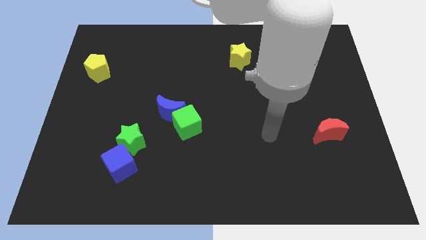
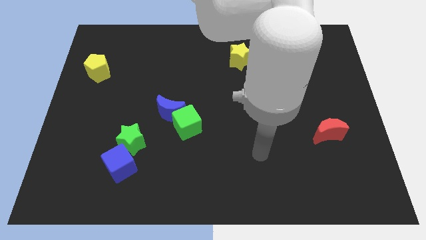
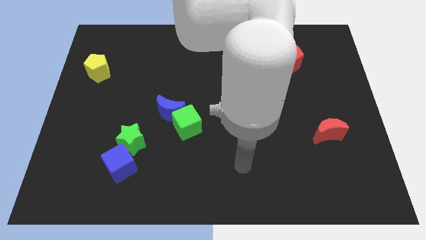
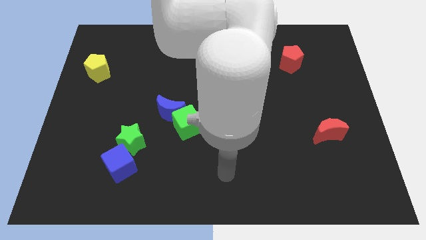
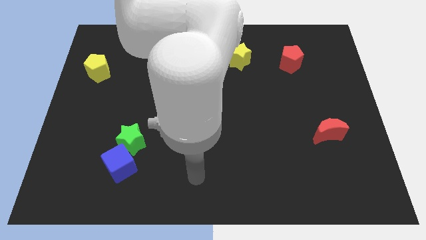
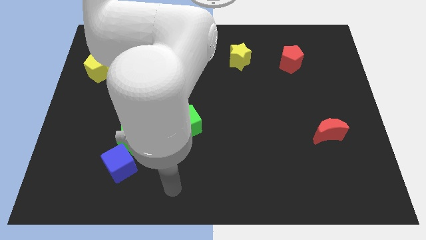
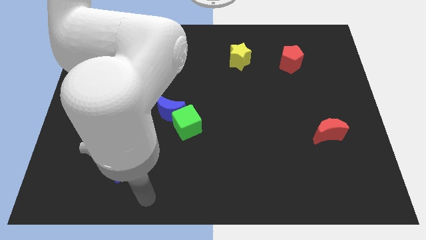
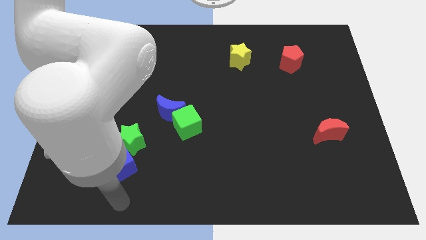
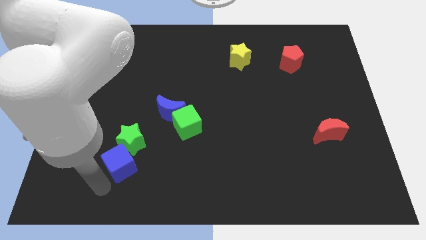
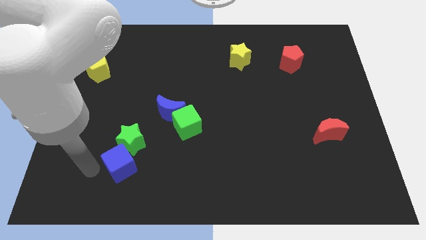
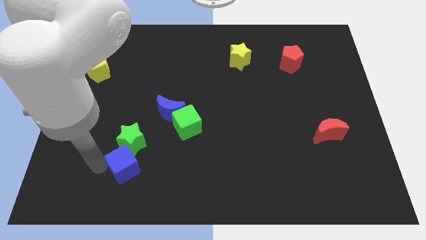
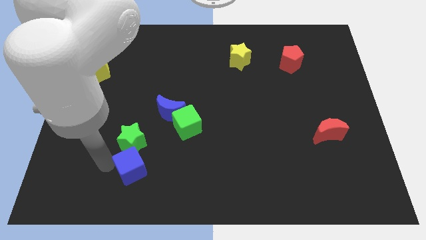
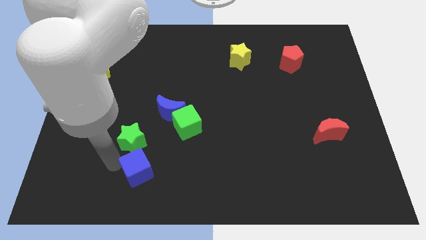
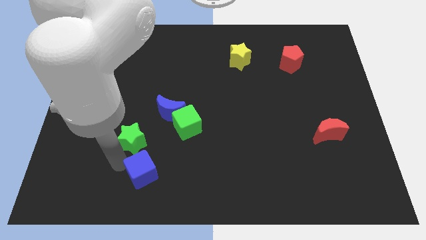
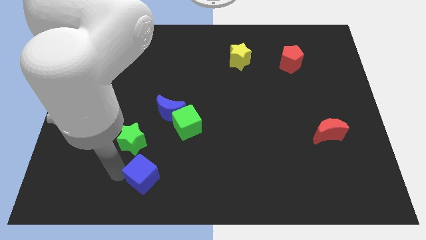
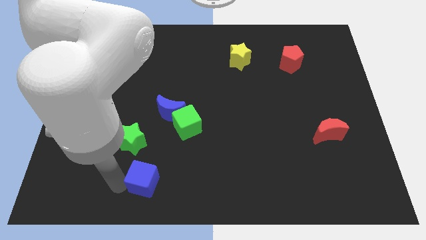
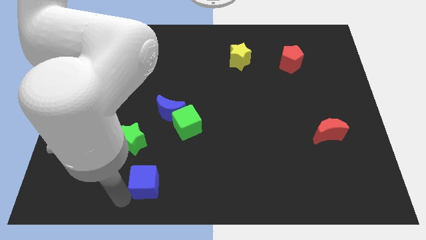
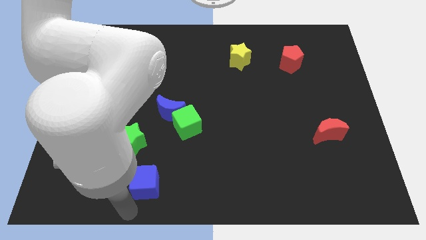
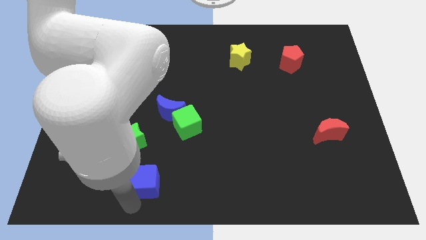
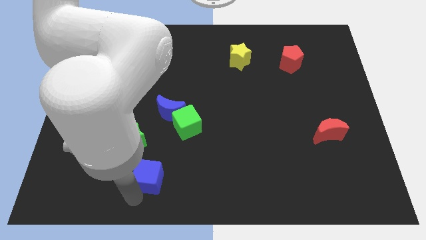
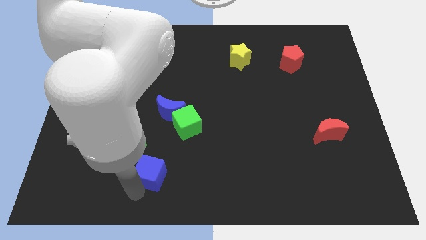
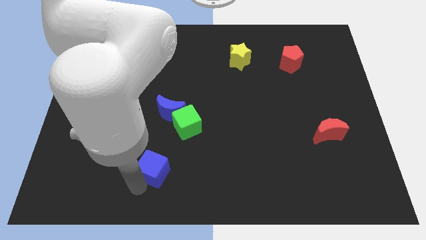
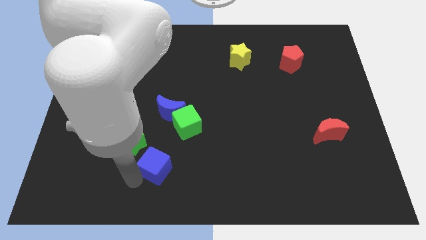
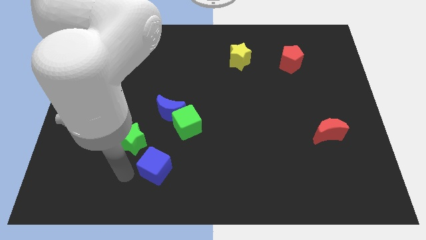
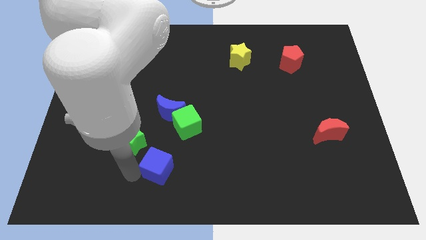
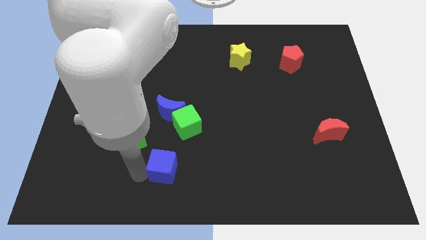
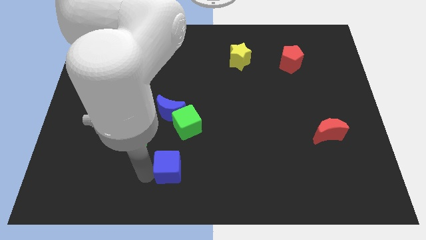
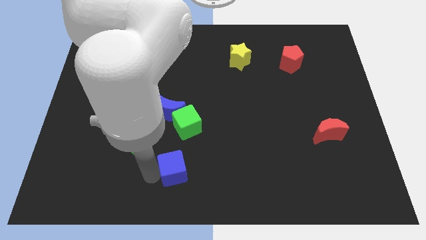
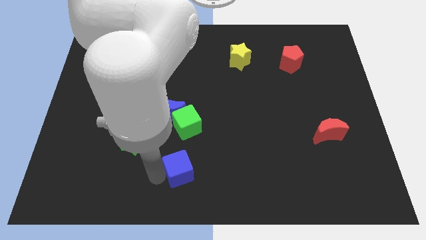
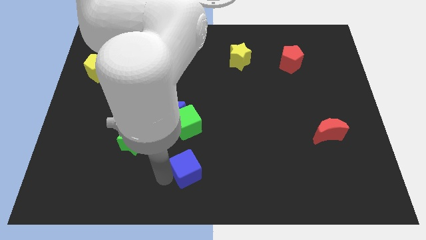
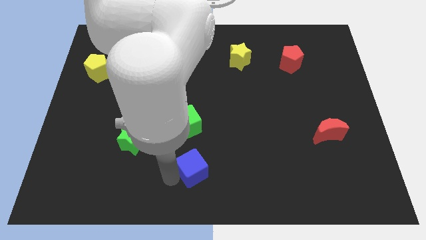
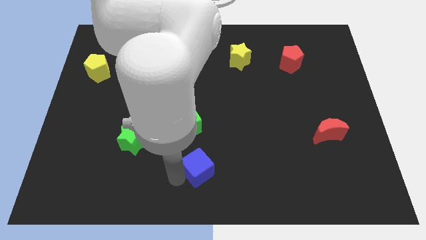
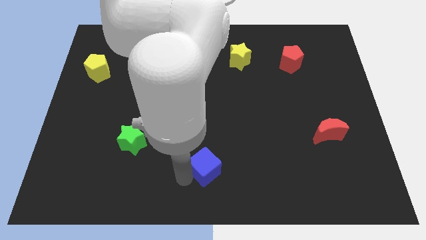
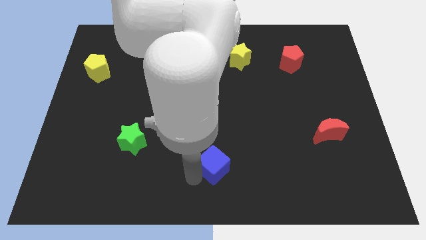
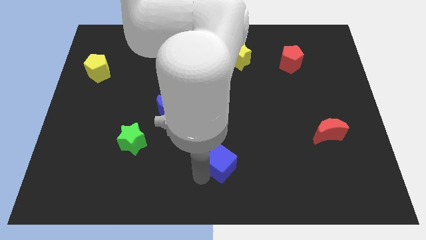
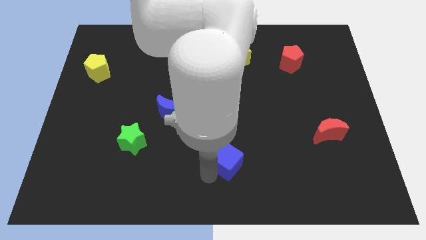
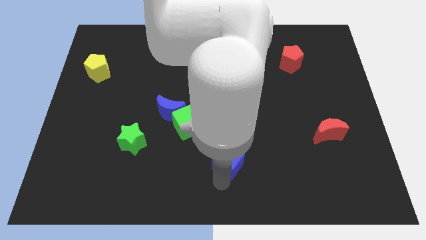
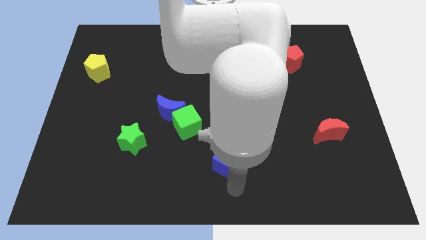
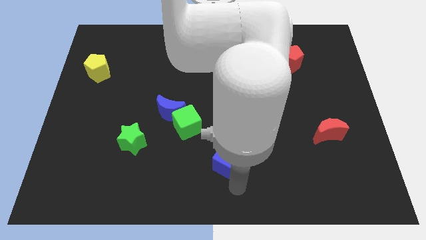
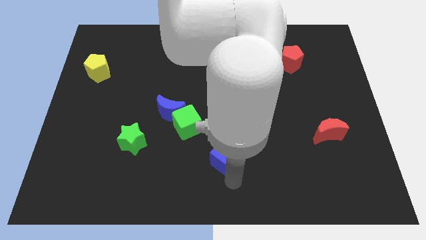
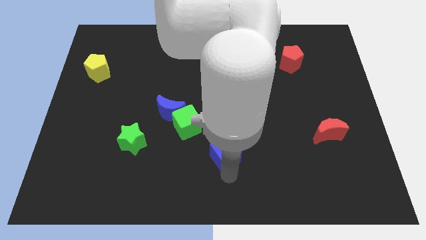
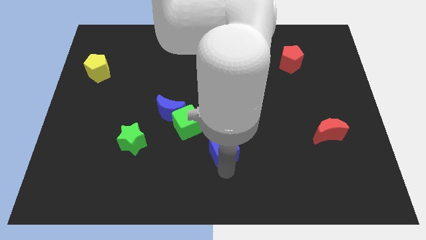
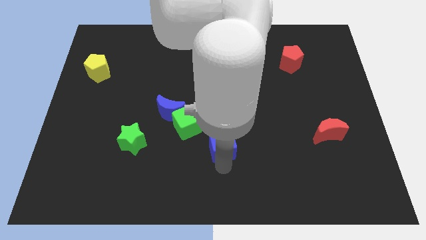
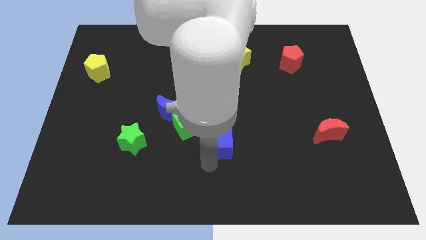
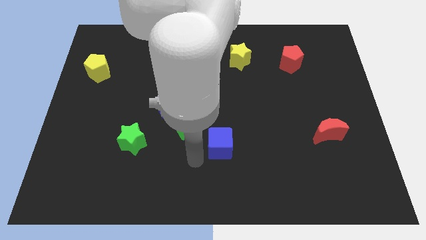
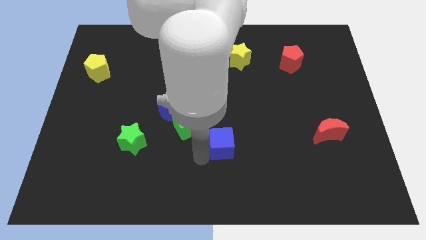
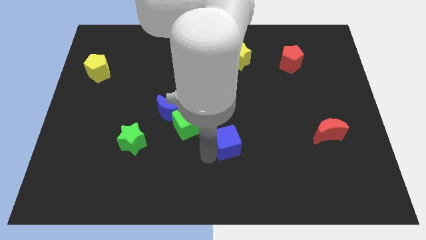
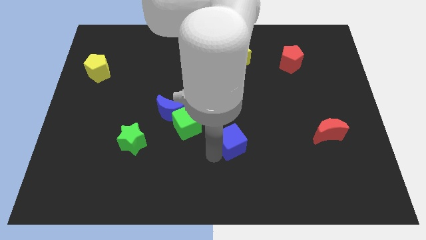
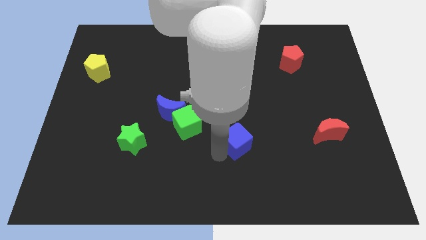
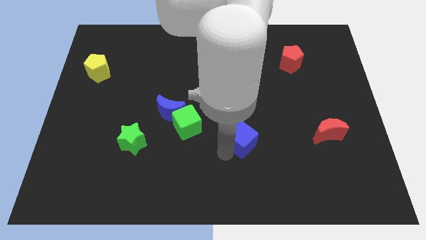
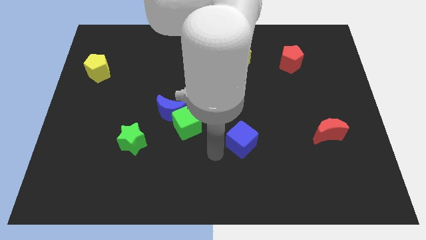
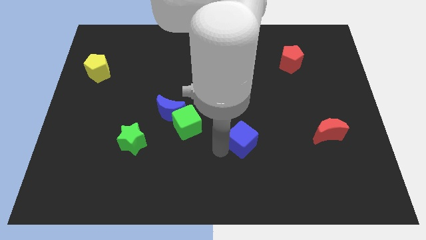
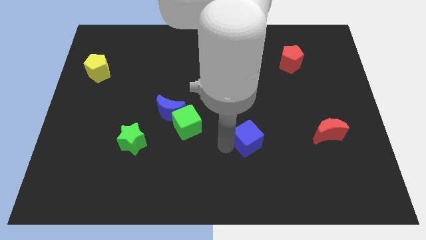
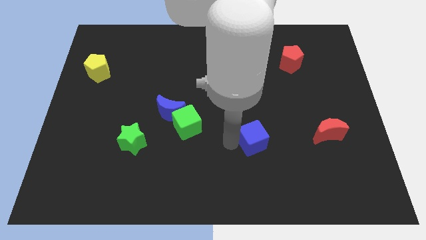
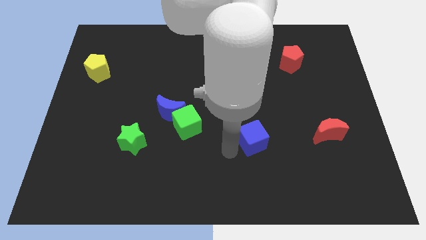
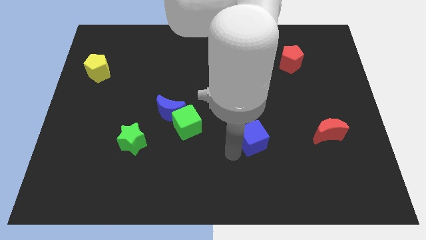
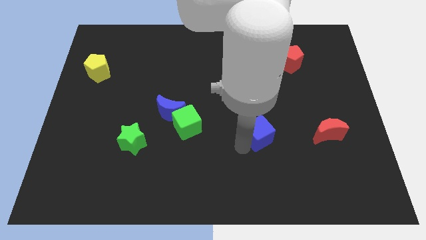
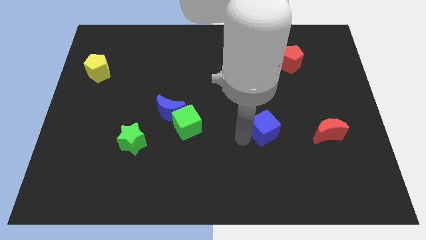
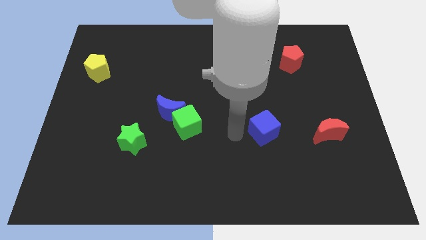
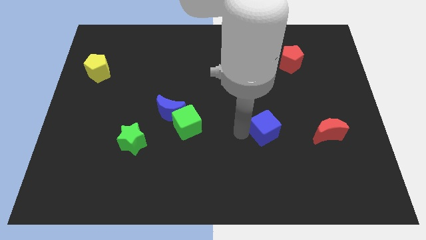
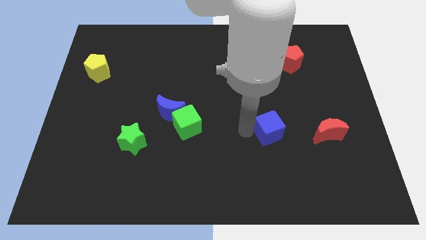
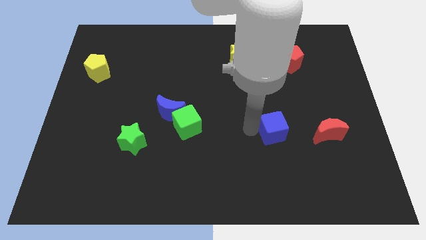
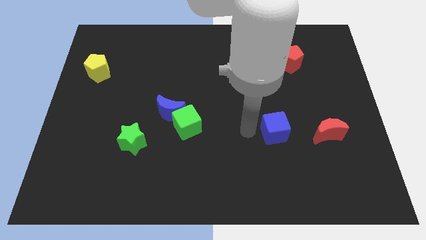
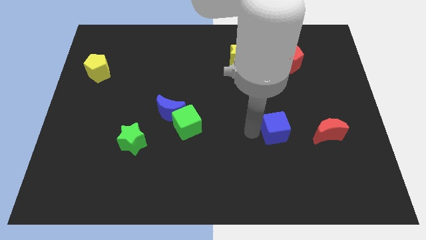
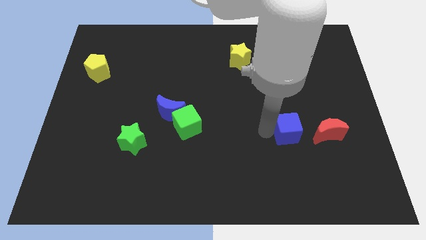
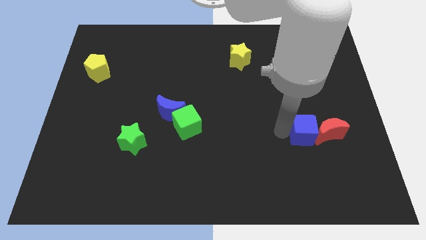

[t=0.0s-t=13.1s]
put the blue cube next to the red moon

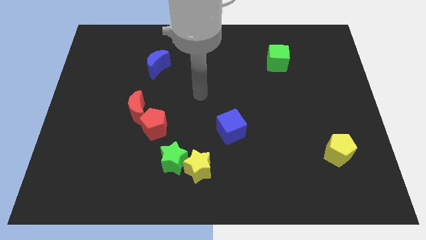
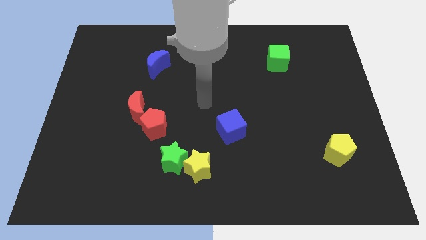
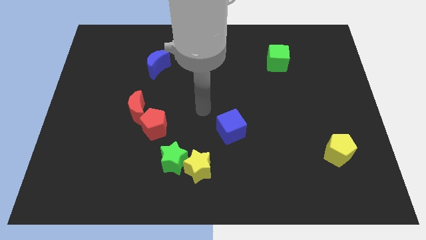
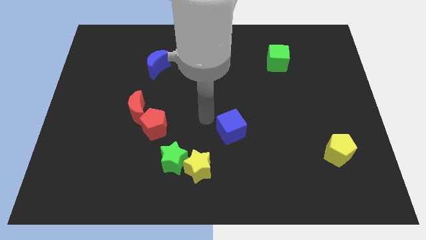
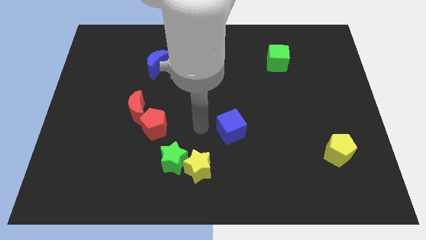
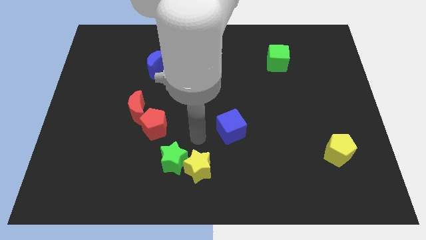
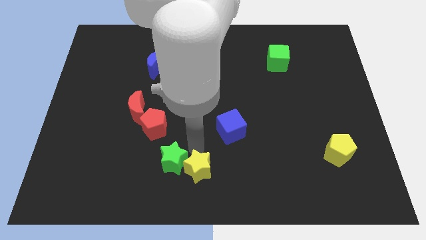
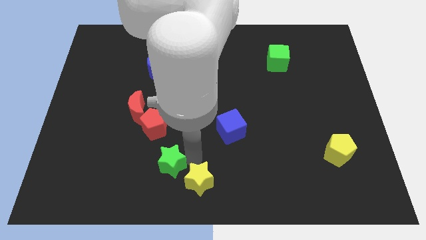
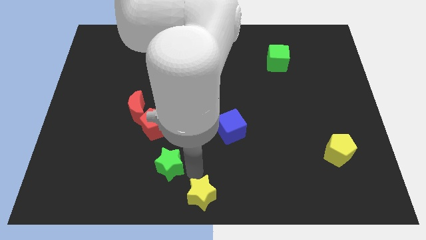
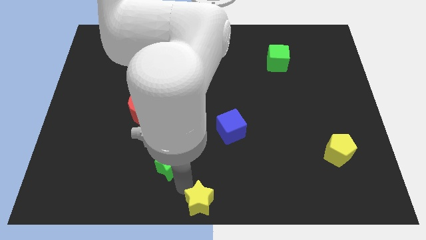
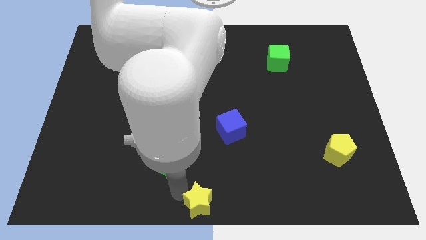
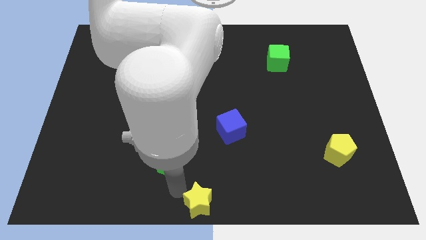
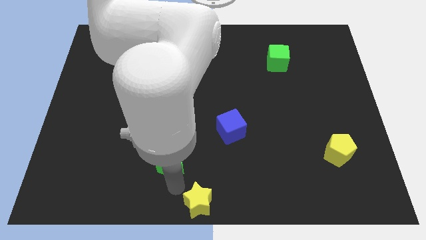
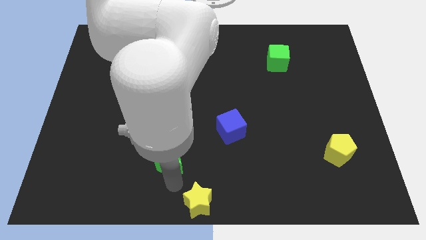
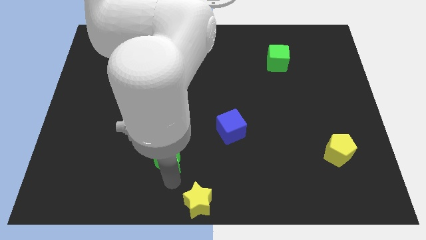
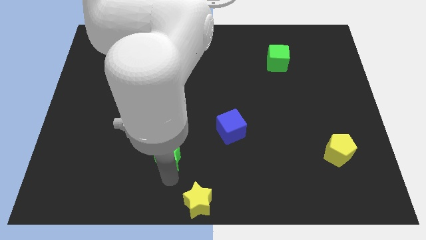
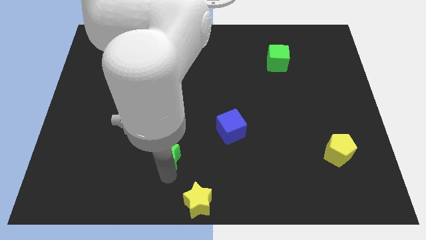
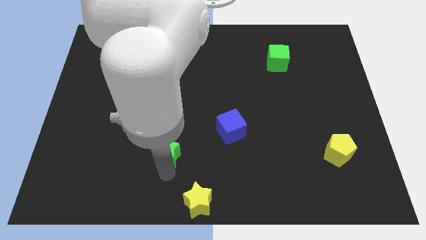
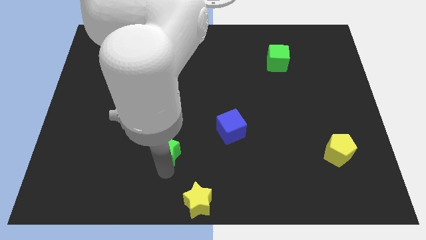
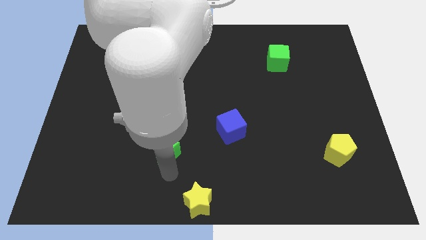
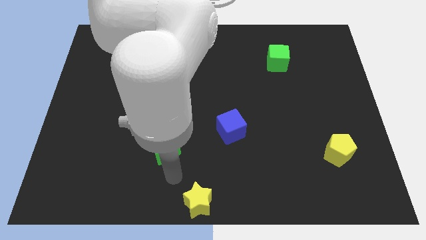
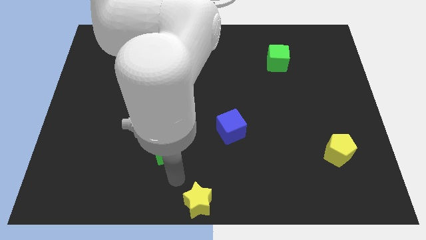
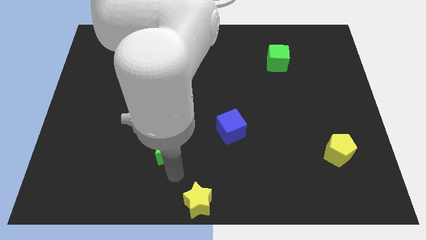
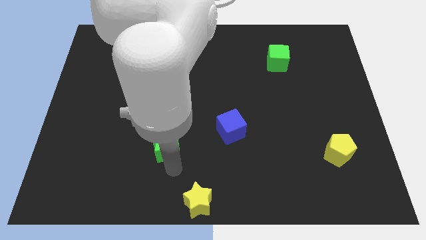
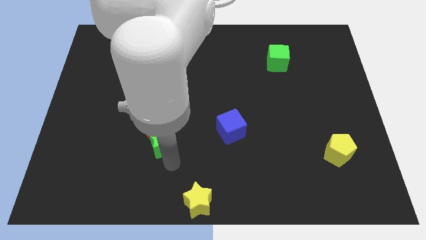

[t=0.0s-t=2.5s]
push the green star to the red pentagon
